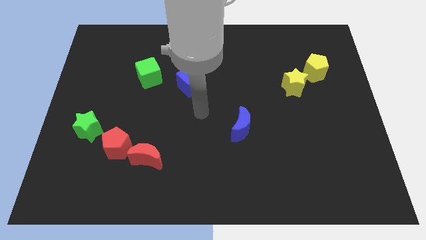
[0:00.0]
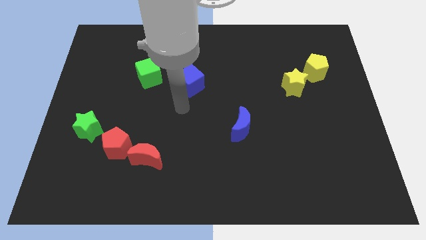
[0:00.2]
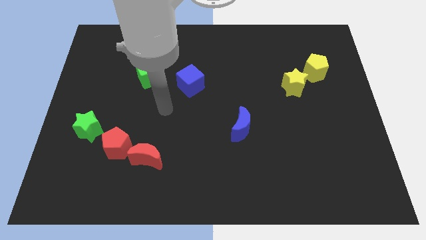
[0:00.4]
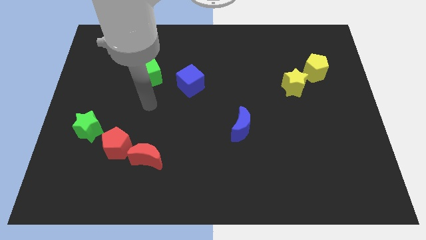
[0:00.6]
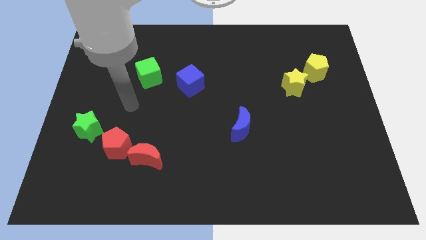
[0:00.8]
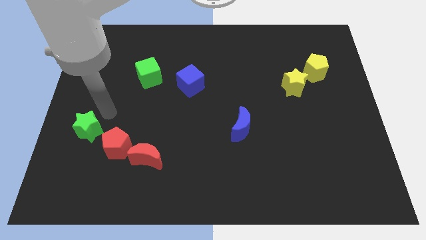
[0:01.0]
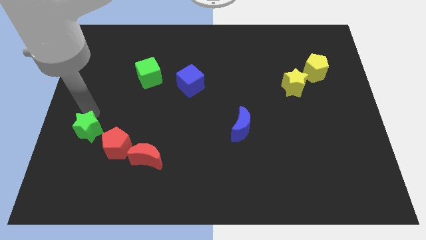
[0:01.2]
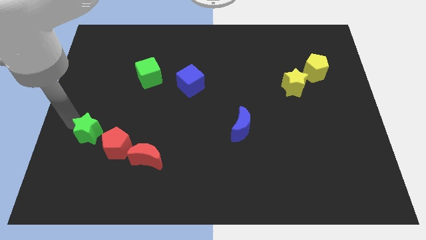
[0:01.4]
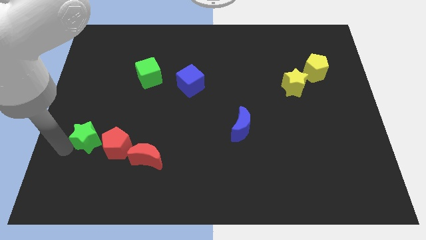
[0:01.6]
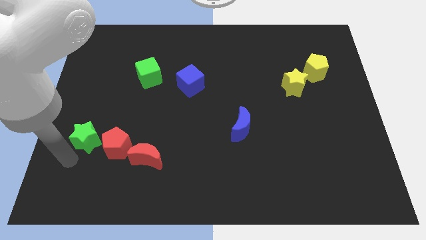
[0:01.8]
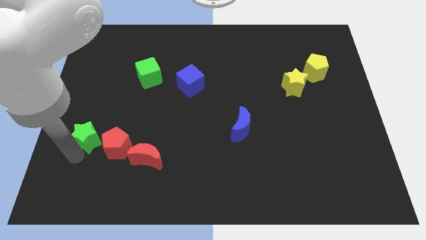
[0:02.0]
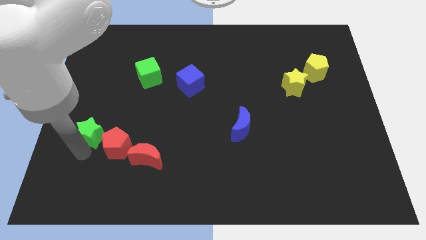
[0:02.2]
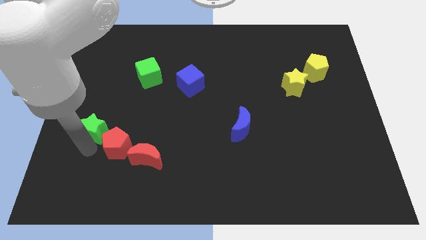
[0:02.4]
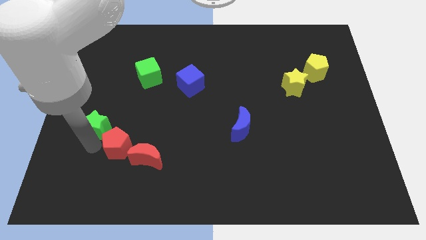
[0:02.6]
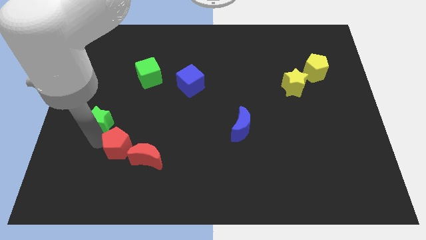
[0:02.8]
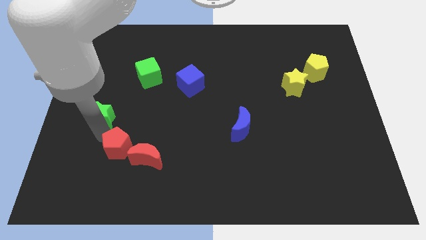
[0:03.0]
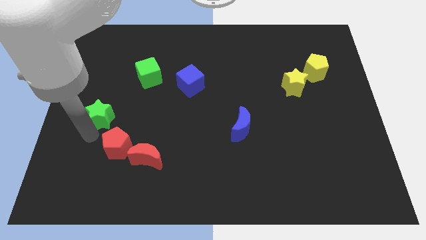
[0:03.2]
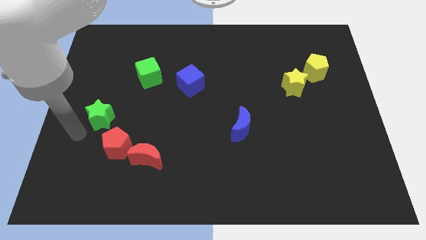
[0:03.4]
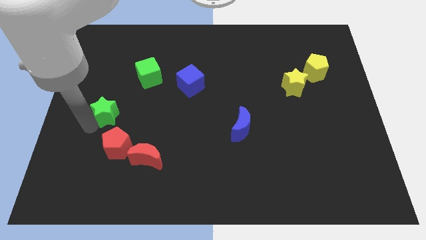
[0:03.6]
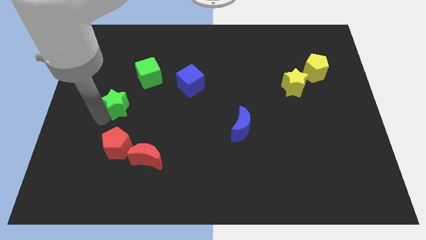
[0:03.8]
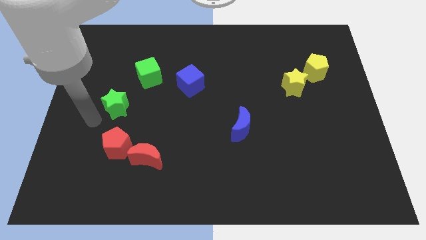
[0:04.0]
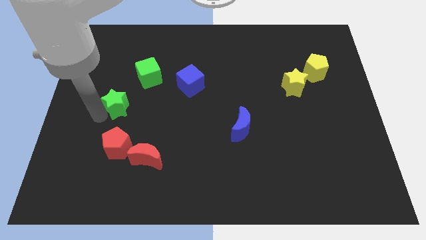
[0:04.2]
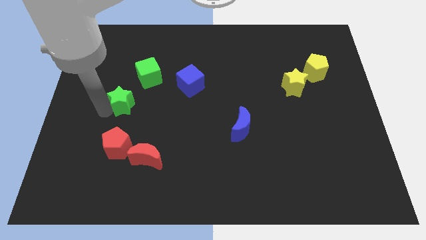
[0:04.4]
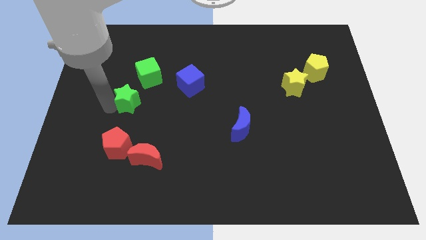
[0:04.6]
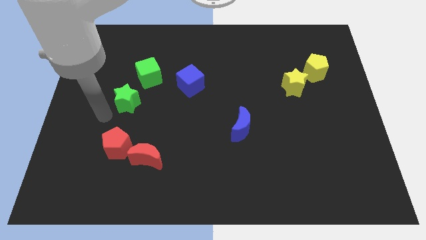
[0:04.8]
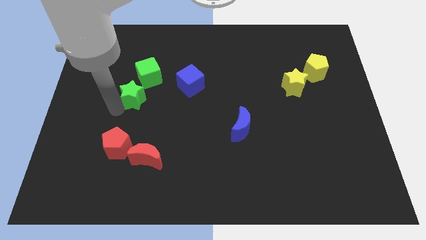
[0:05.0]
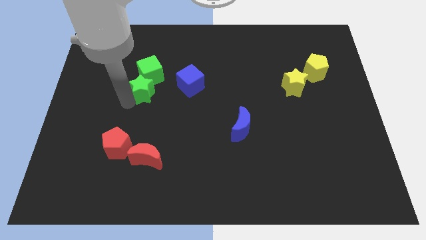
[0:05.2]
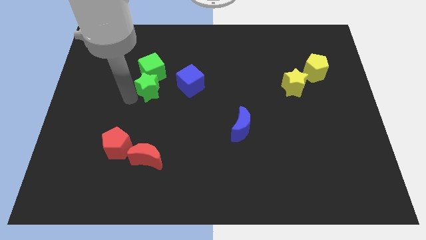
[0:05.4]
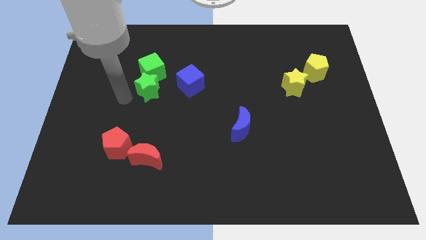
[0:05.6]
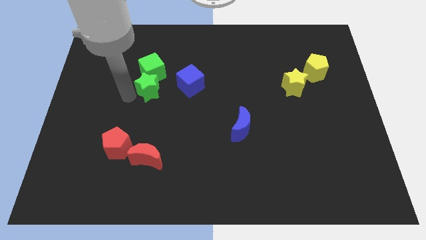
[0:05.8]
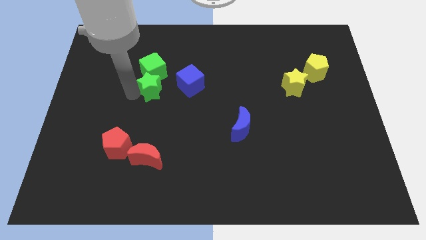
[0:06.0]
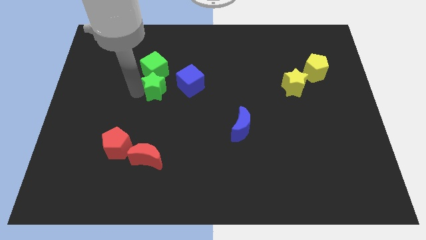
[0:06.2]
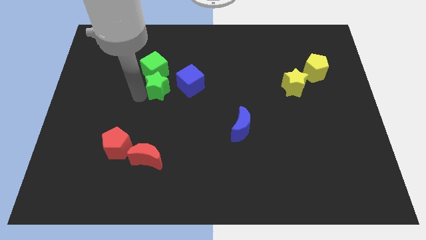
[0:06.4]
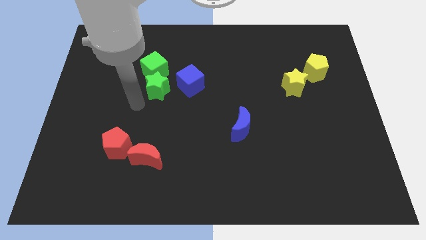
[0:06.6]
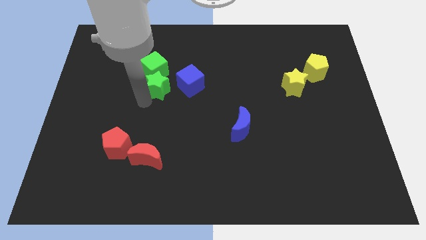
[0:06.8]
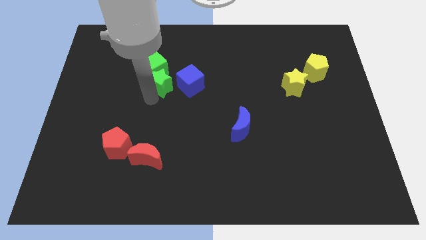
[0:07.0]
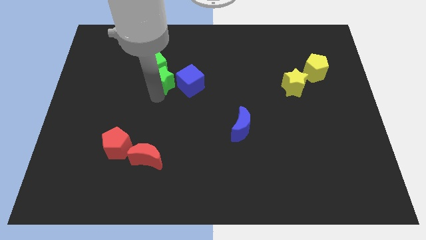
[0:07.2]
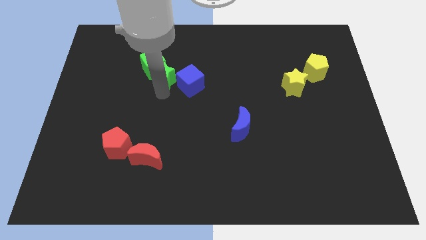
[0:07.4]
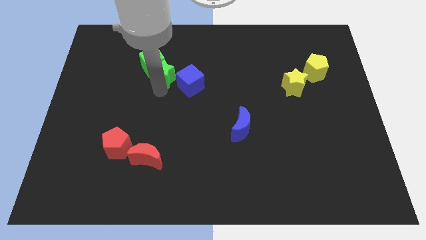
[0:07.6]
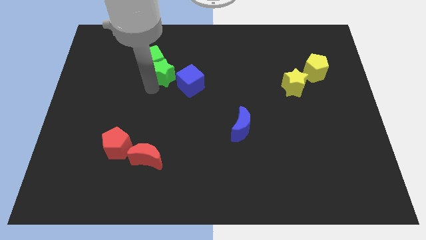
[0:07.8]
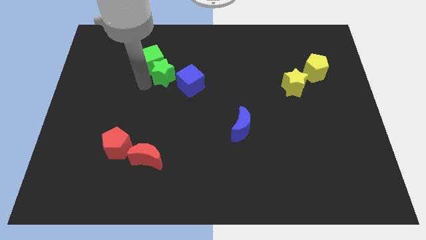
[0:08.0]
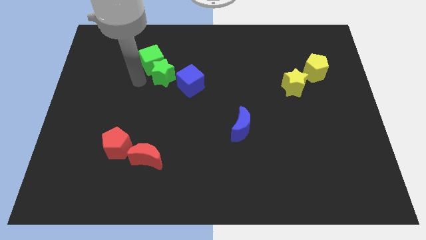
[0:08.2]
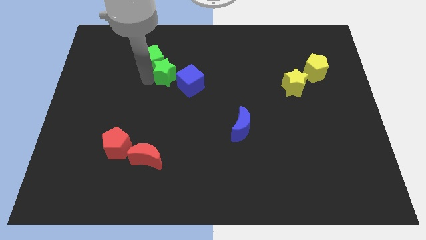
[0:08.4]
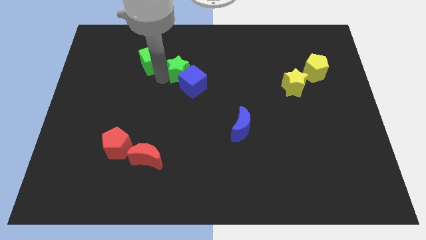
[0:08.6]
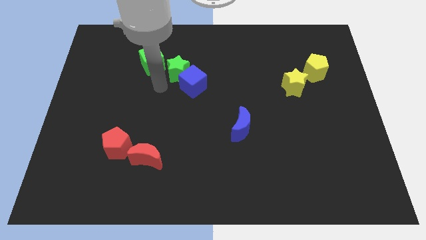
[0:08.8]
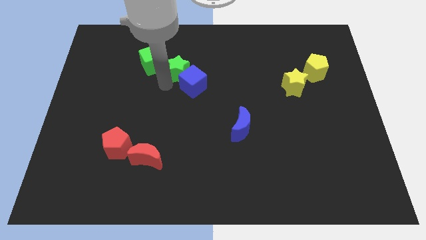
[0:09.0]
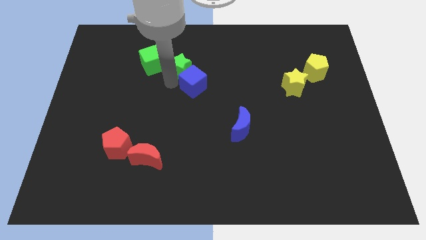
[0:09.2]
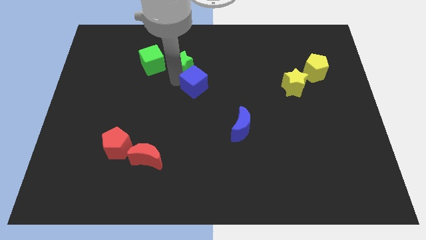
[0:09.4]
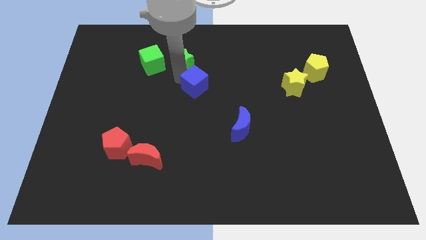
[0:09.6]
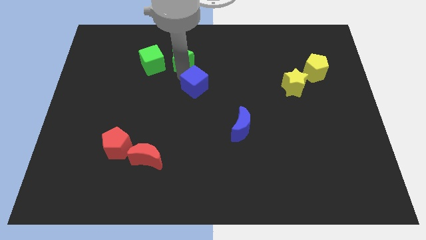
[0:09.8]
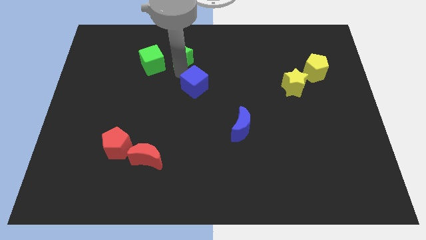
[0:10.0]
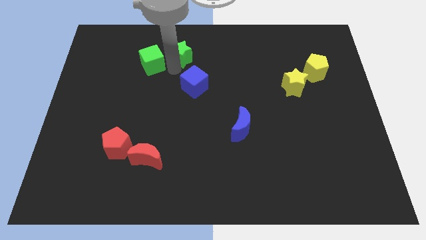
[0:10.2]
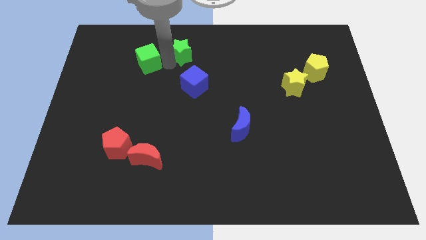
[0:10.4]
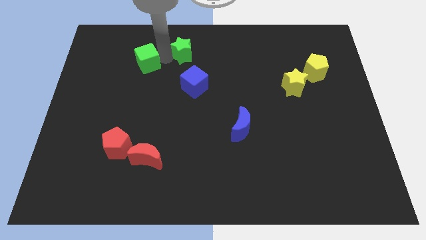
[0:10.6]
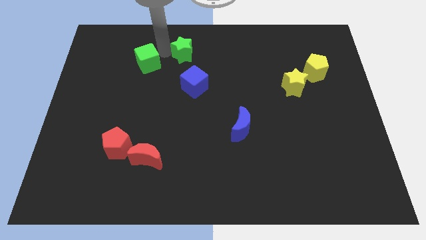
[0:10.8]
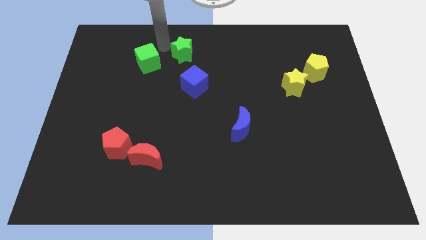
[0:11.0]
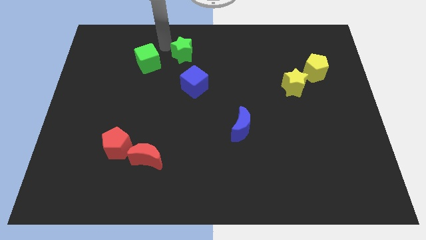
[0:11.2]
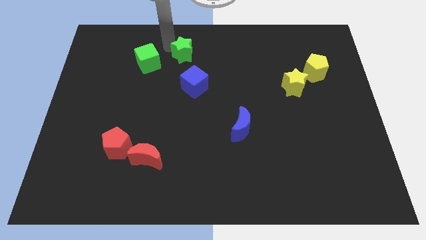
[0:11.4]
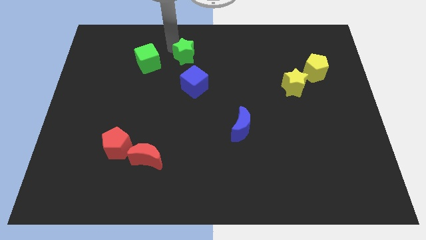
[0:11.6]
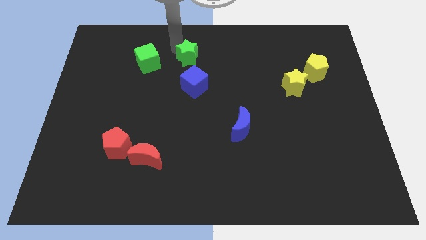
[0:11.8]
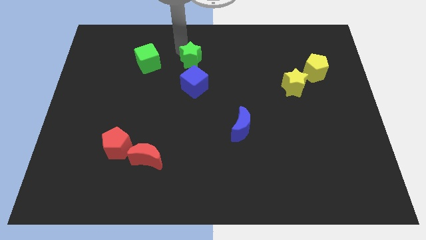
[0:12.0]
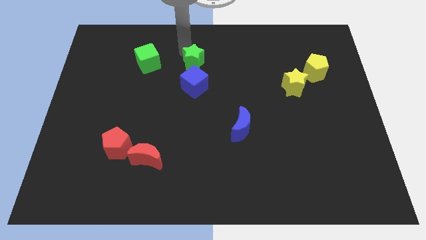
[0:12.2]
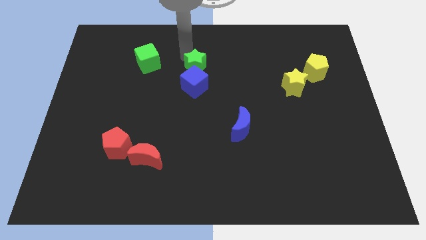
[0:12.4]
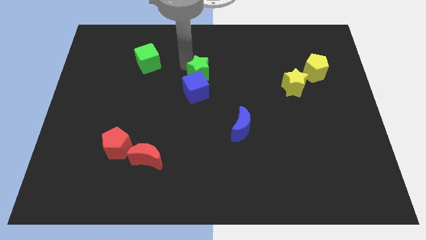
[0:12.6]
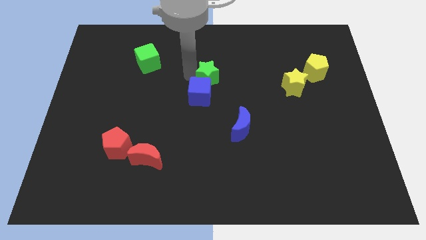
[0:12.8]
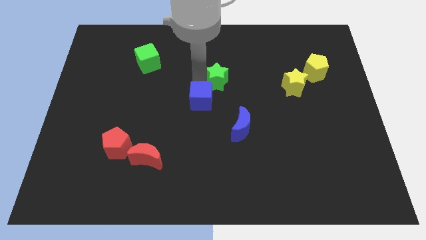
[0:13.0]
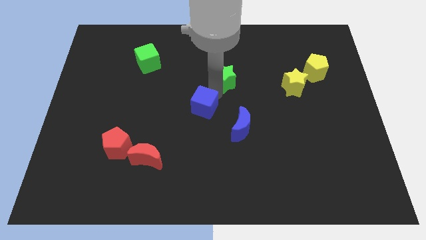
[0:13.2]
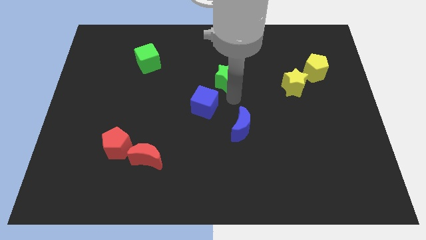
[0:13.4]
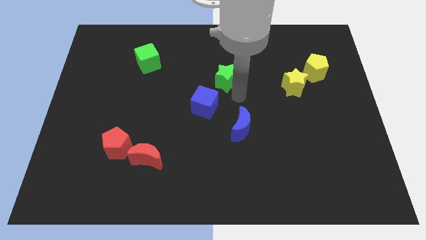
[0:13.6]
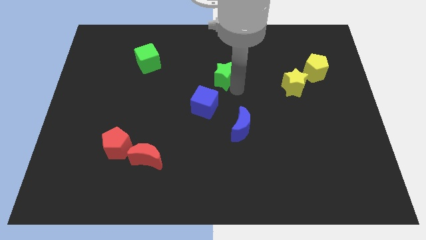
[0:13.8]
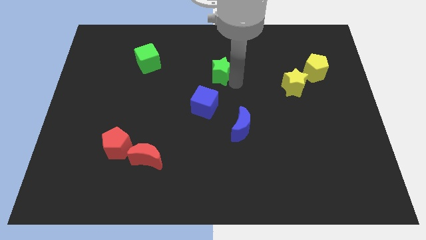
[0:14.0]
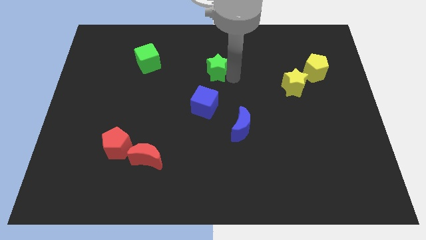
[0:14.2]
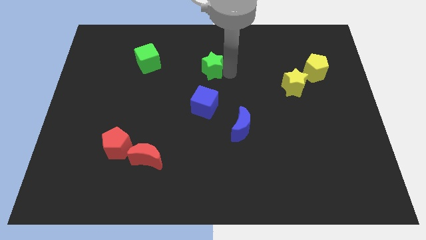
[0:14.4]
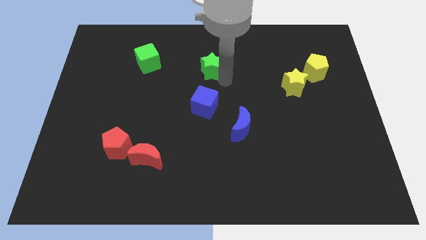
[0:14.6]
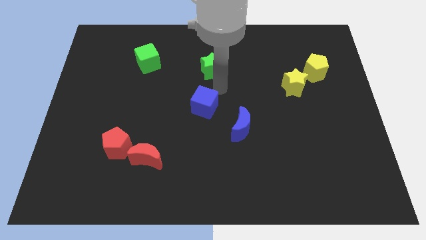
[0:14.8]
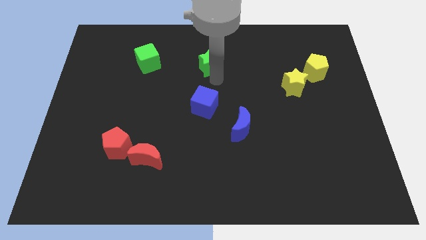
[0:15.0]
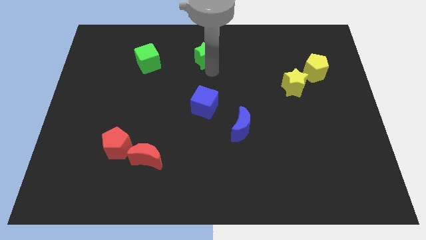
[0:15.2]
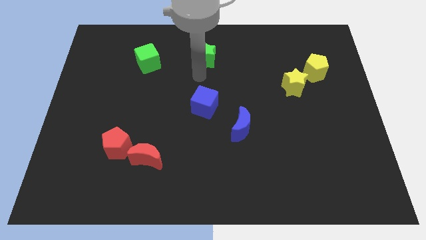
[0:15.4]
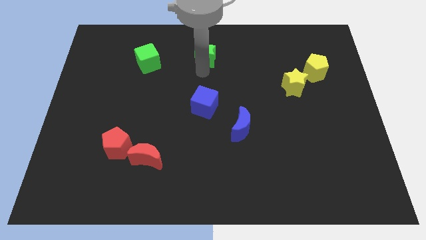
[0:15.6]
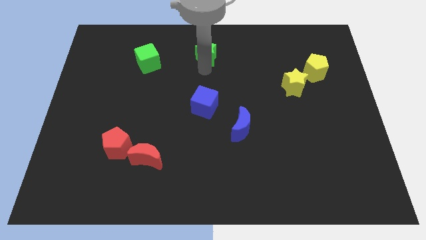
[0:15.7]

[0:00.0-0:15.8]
slide the green star to the towards your base
